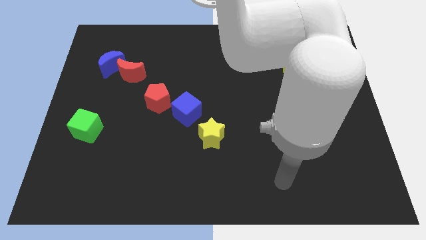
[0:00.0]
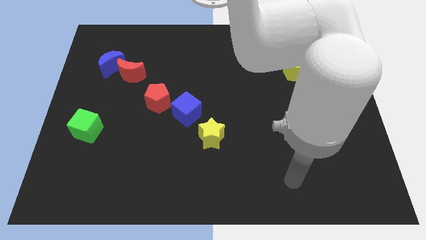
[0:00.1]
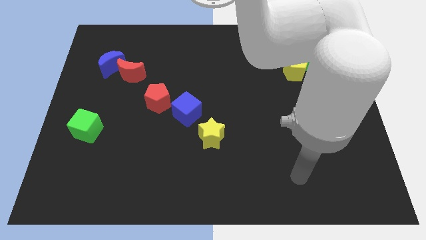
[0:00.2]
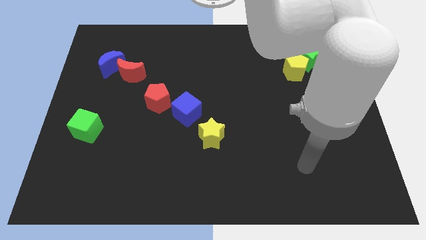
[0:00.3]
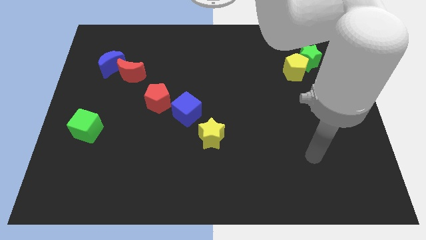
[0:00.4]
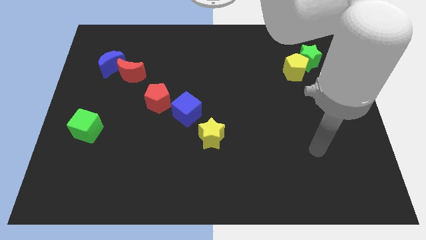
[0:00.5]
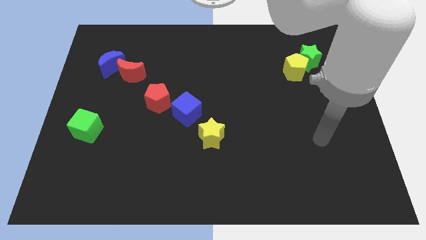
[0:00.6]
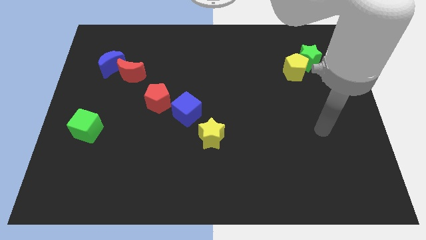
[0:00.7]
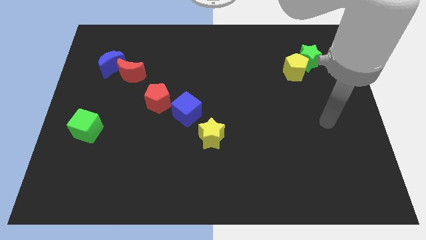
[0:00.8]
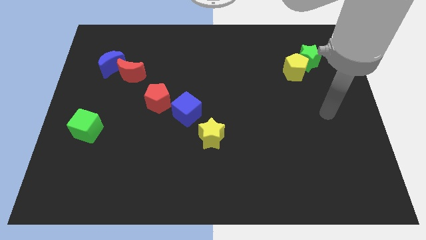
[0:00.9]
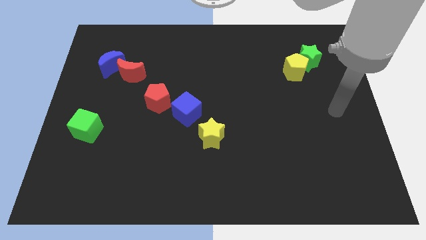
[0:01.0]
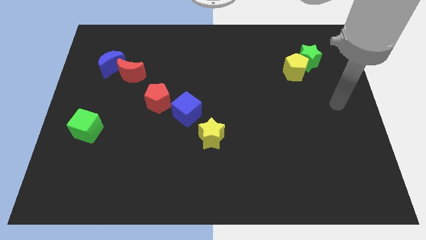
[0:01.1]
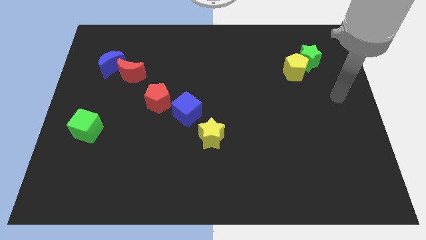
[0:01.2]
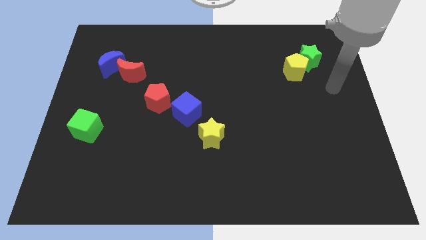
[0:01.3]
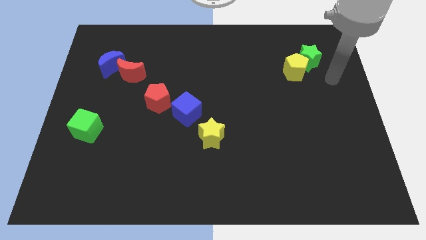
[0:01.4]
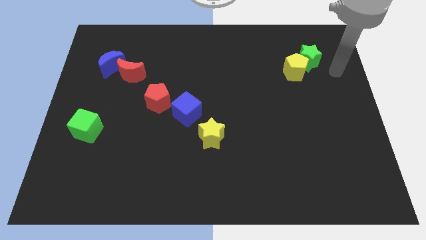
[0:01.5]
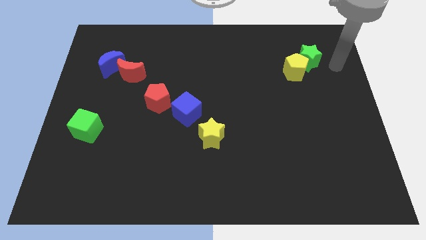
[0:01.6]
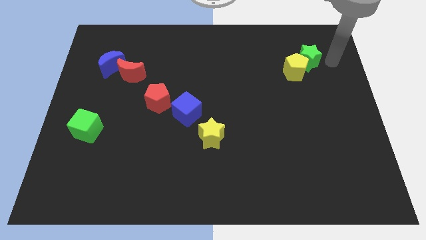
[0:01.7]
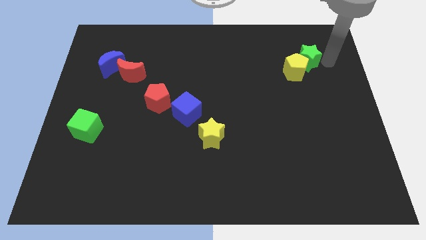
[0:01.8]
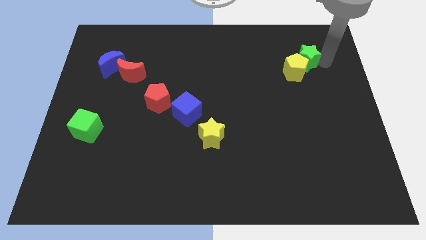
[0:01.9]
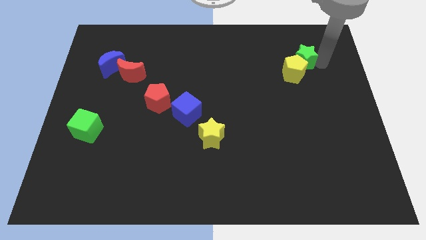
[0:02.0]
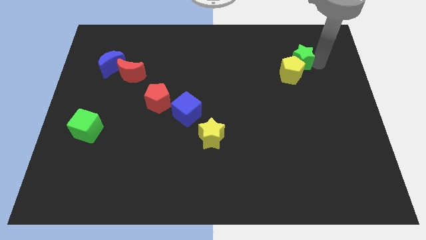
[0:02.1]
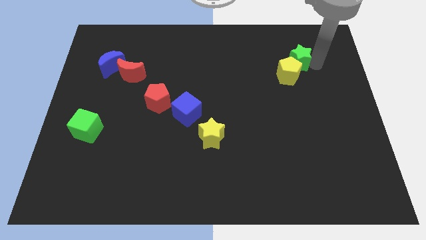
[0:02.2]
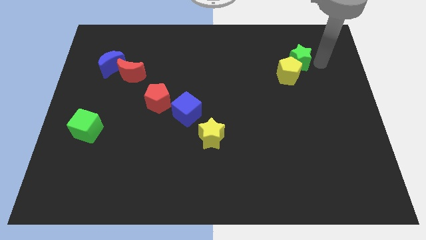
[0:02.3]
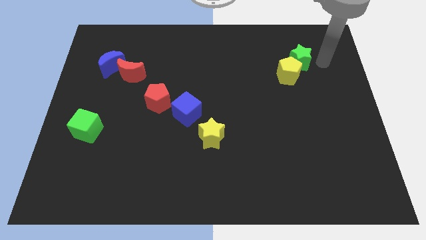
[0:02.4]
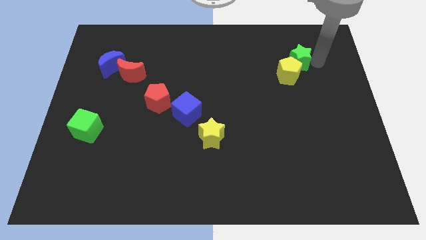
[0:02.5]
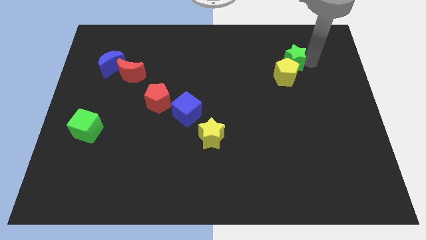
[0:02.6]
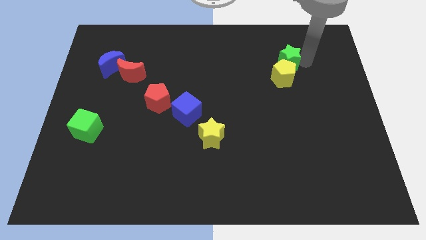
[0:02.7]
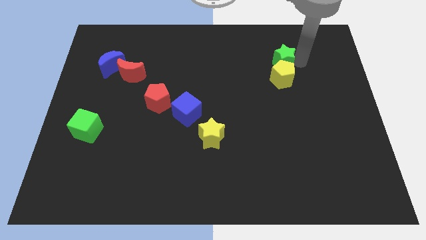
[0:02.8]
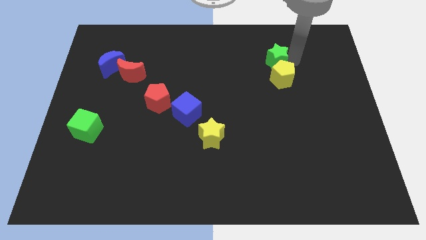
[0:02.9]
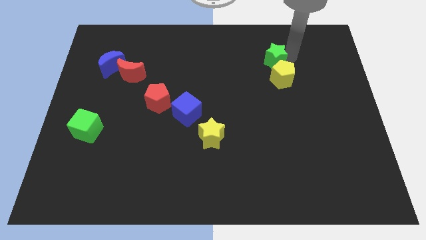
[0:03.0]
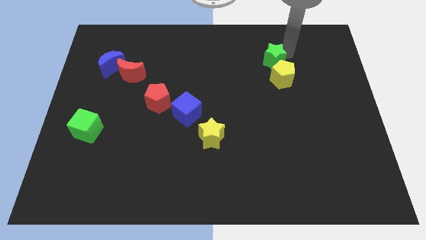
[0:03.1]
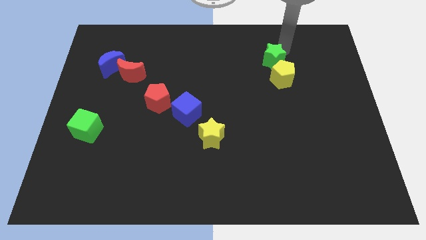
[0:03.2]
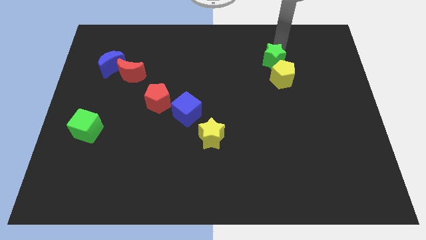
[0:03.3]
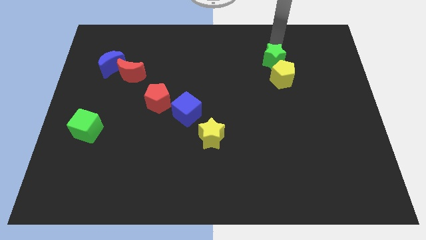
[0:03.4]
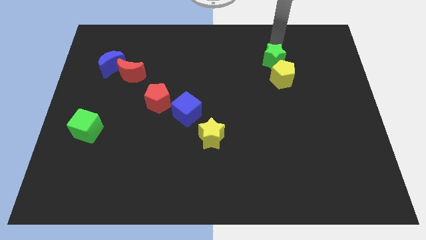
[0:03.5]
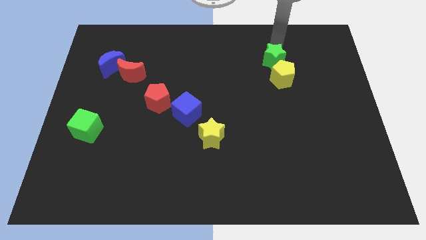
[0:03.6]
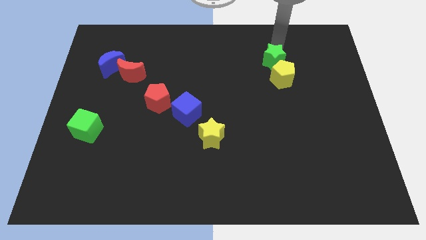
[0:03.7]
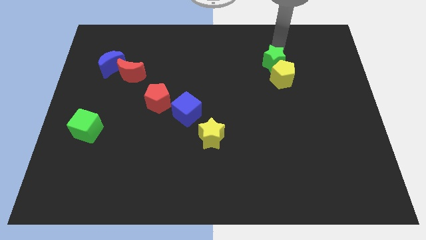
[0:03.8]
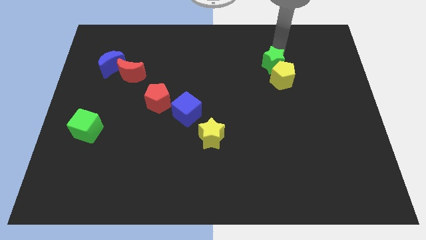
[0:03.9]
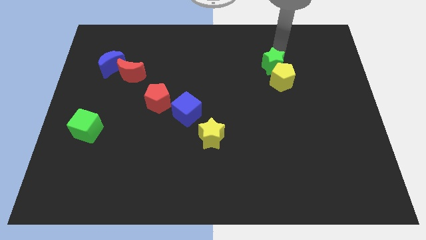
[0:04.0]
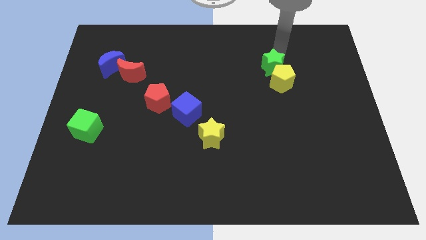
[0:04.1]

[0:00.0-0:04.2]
slide the green star downwards and left a little bit

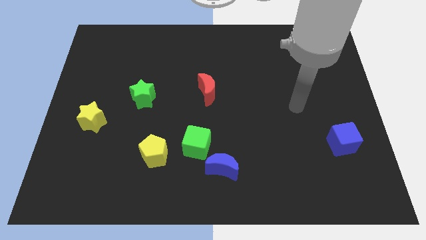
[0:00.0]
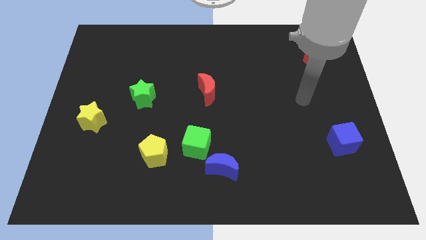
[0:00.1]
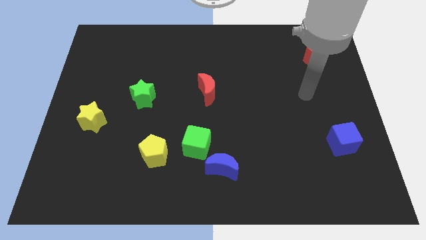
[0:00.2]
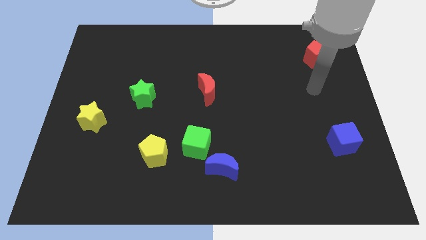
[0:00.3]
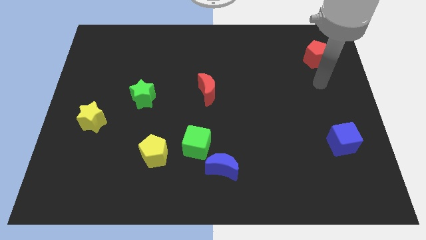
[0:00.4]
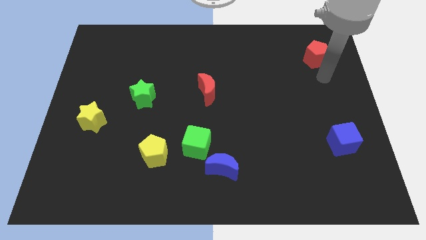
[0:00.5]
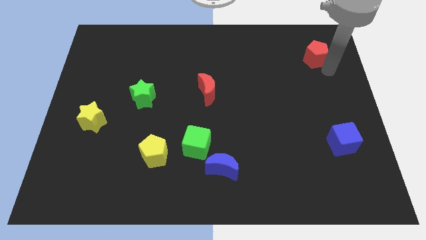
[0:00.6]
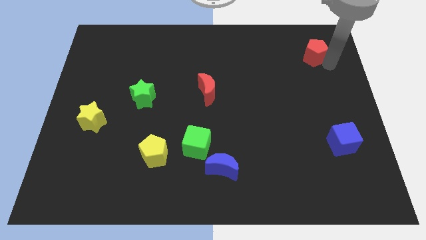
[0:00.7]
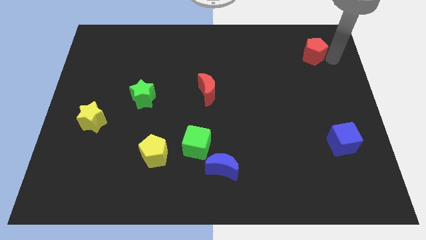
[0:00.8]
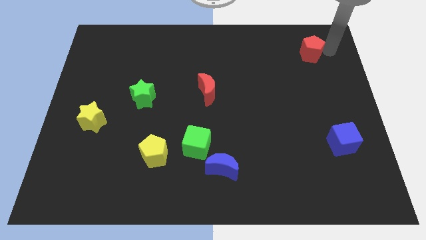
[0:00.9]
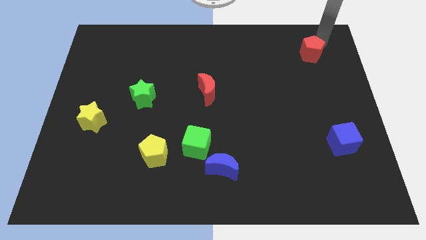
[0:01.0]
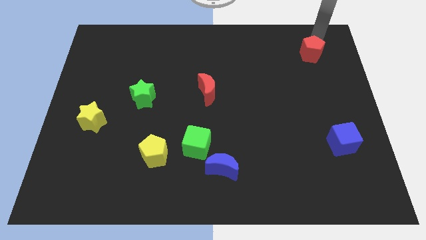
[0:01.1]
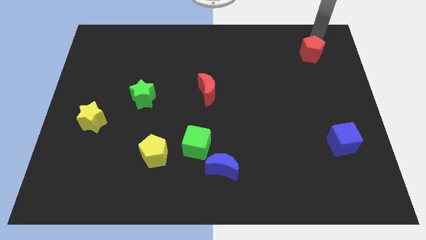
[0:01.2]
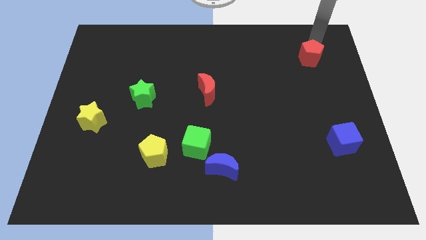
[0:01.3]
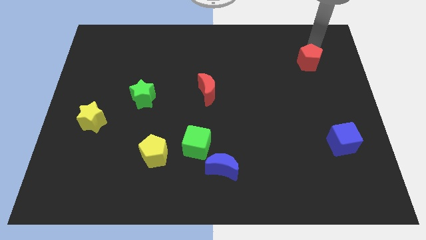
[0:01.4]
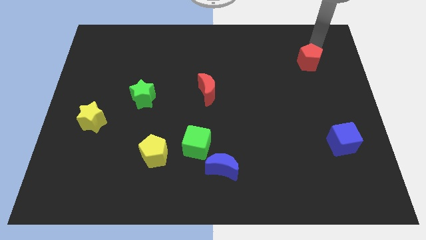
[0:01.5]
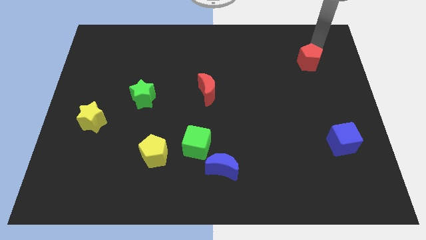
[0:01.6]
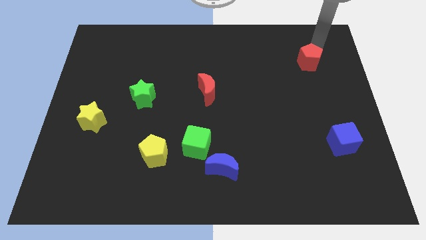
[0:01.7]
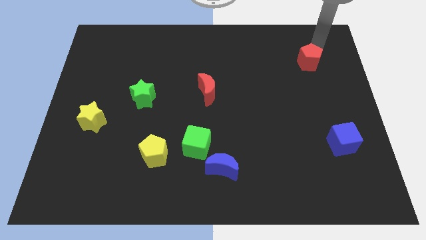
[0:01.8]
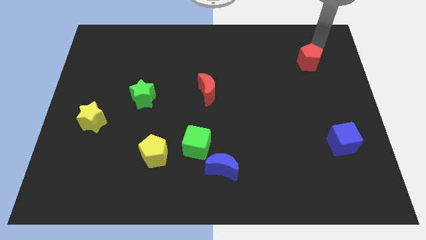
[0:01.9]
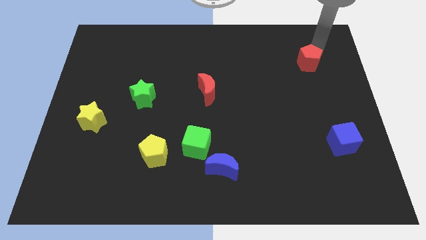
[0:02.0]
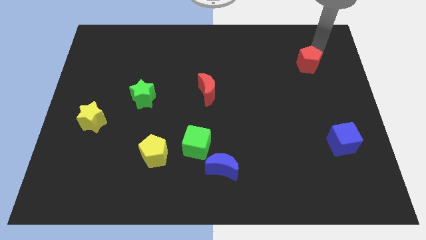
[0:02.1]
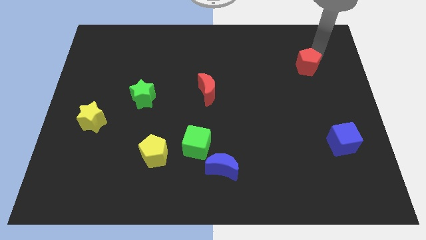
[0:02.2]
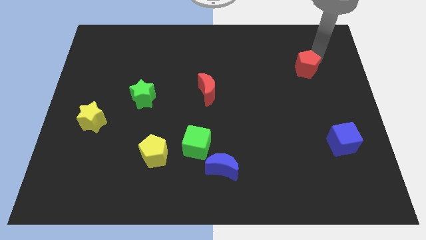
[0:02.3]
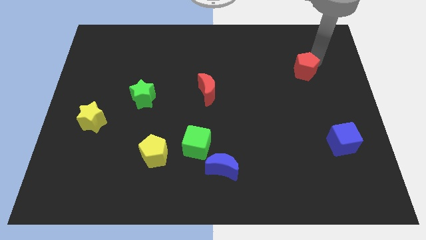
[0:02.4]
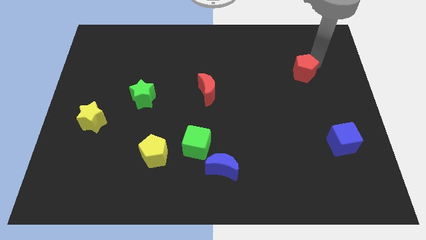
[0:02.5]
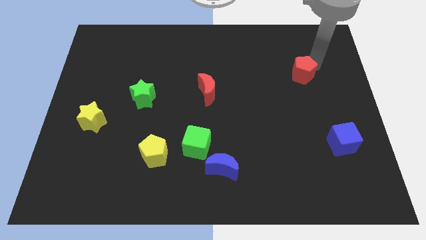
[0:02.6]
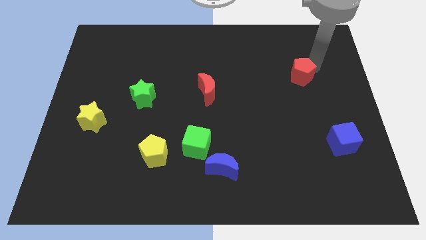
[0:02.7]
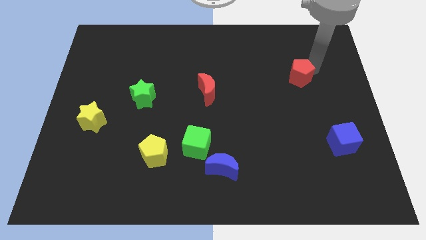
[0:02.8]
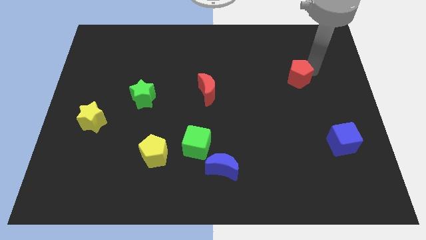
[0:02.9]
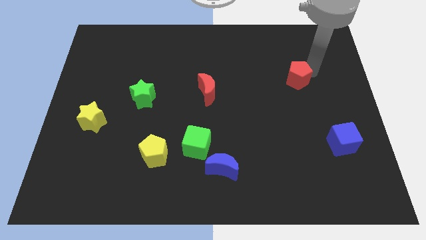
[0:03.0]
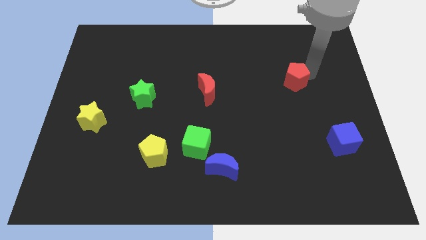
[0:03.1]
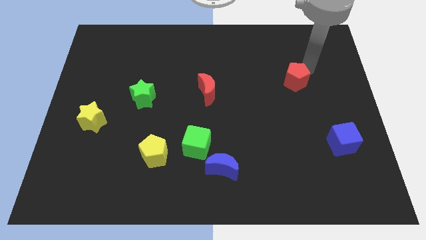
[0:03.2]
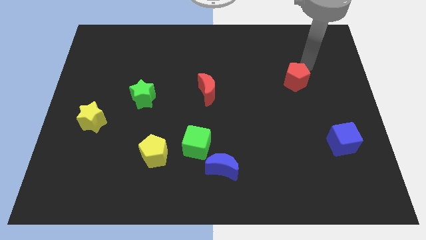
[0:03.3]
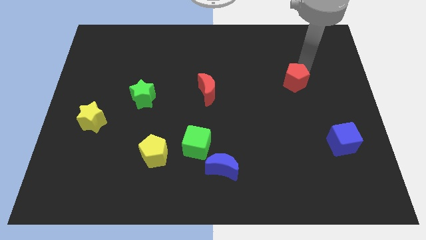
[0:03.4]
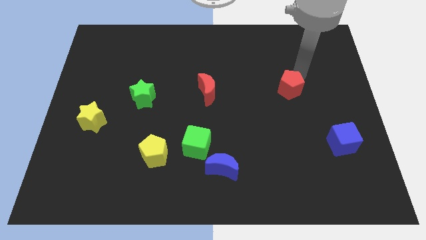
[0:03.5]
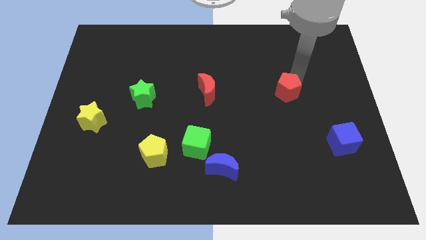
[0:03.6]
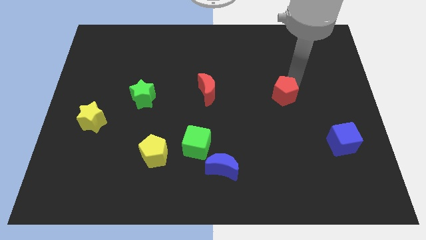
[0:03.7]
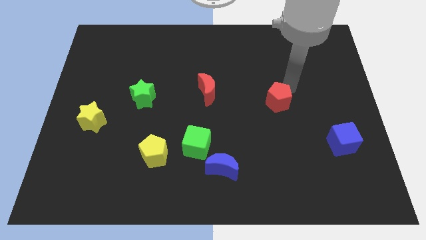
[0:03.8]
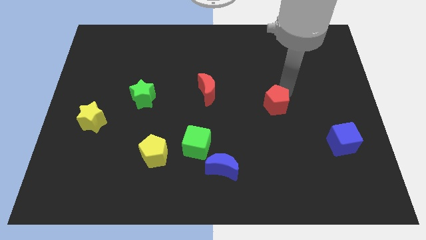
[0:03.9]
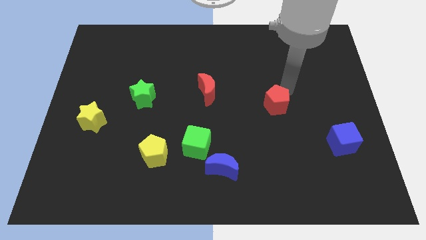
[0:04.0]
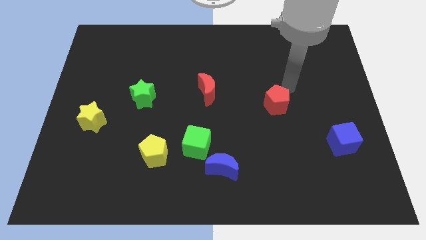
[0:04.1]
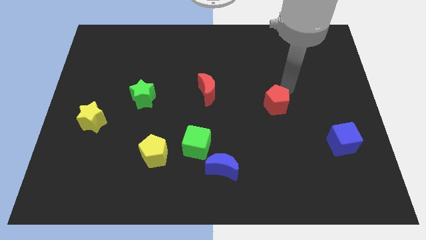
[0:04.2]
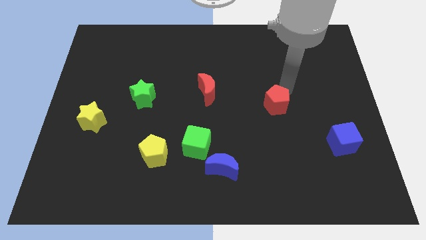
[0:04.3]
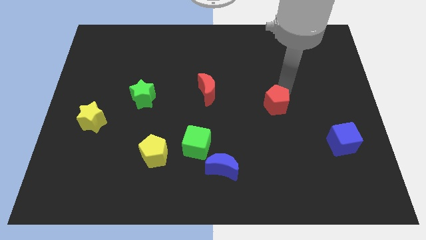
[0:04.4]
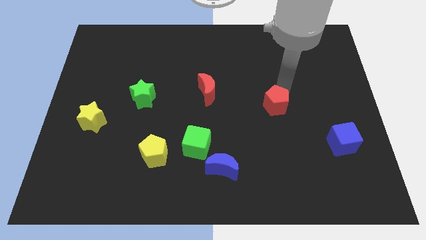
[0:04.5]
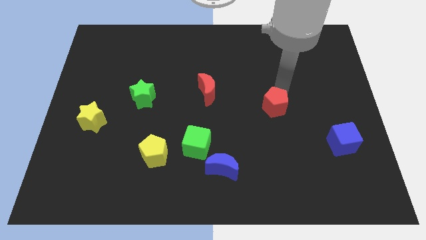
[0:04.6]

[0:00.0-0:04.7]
slide the red pentagon downwards and then left
